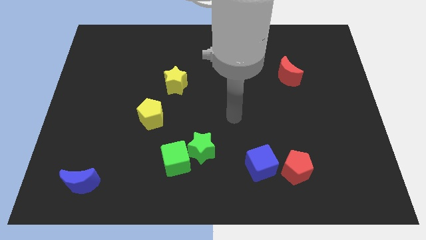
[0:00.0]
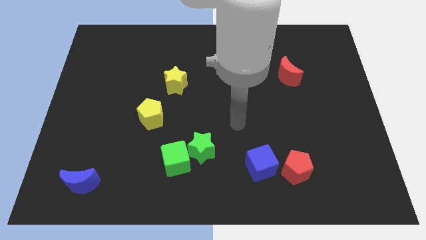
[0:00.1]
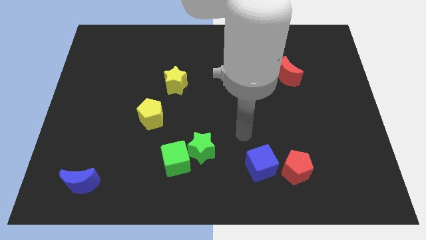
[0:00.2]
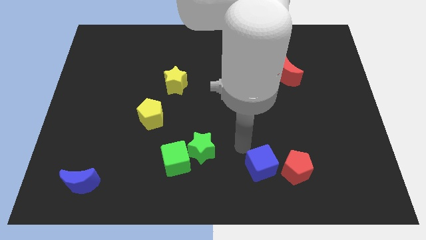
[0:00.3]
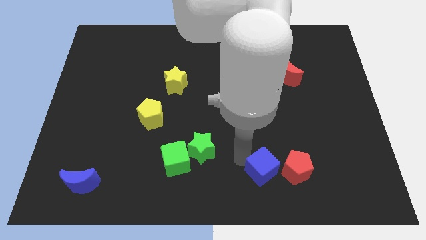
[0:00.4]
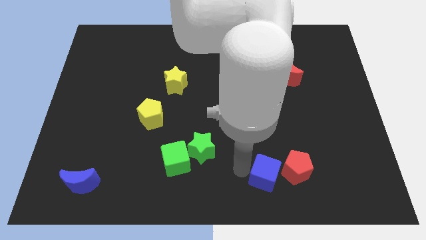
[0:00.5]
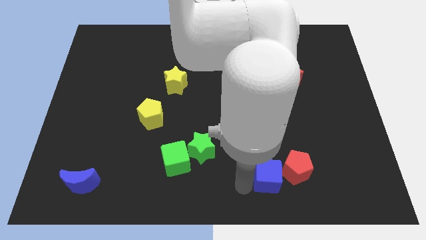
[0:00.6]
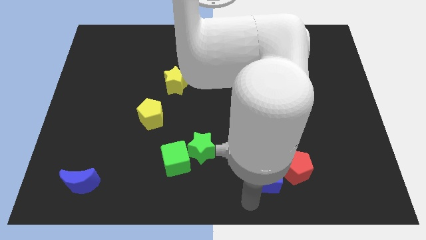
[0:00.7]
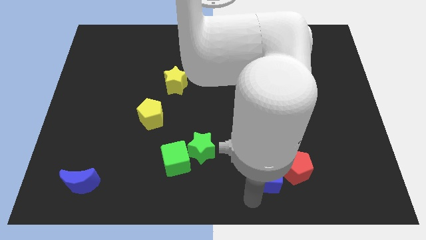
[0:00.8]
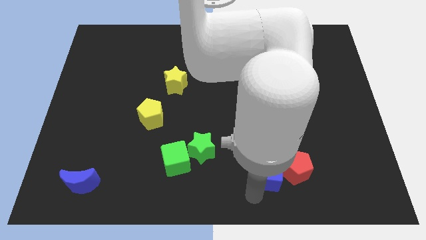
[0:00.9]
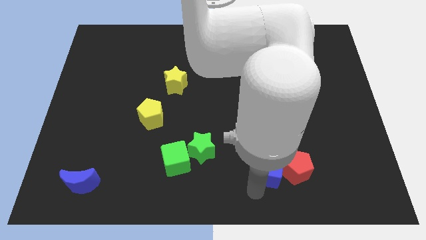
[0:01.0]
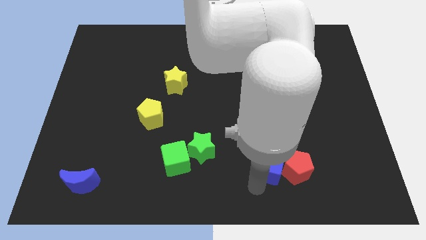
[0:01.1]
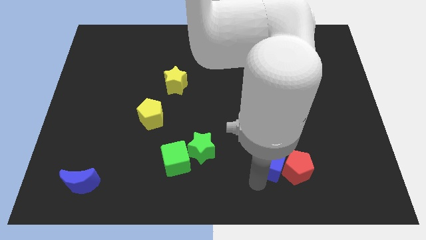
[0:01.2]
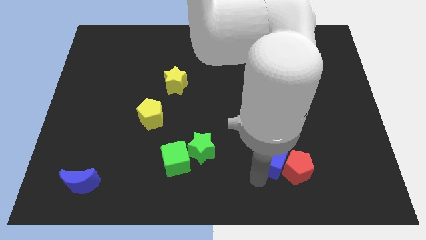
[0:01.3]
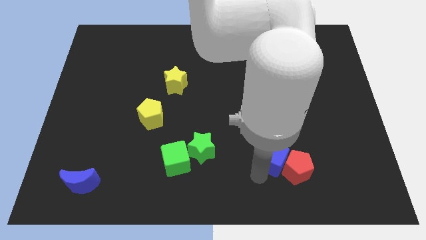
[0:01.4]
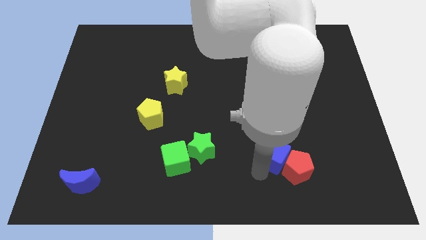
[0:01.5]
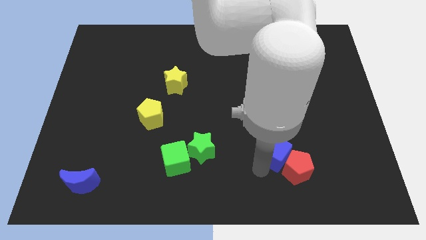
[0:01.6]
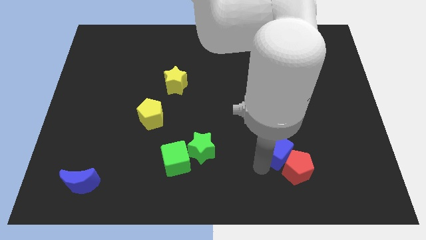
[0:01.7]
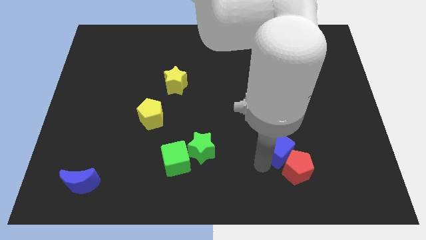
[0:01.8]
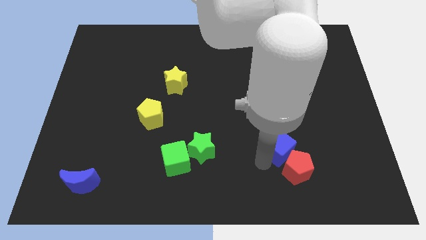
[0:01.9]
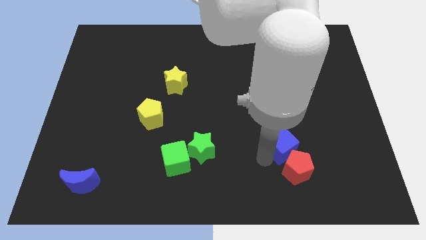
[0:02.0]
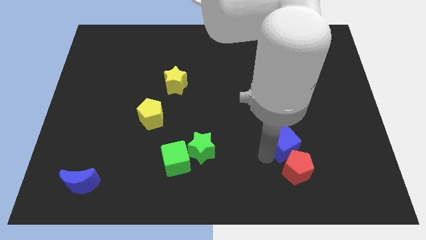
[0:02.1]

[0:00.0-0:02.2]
slide the blue cube a little diagonally up and right

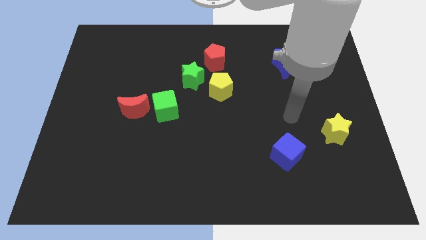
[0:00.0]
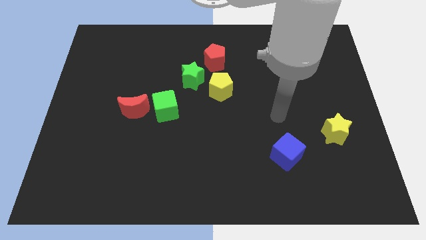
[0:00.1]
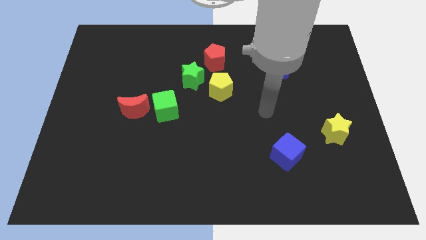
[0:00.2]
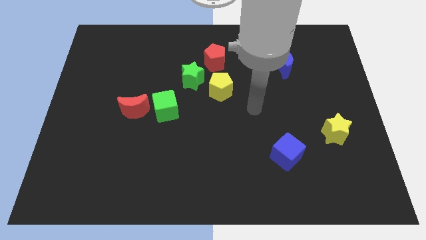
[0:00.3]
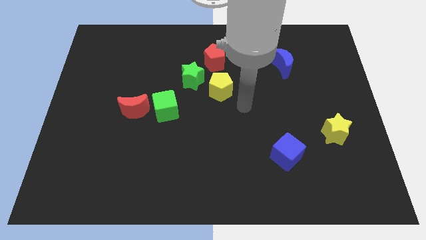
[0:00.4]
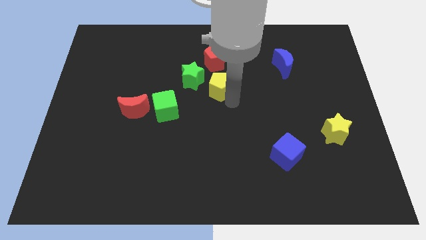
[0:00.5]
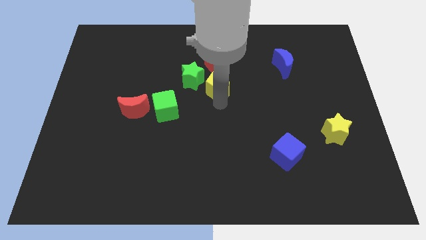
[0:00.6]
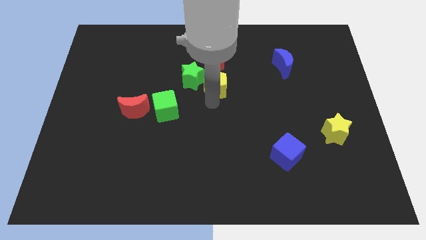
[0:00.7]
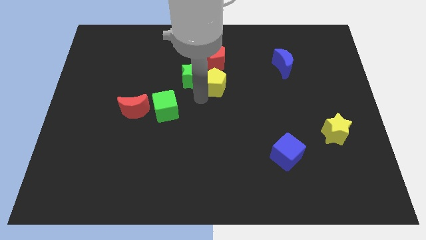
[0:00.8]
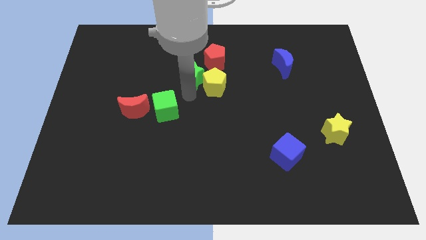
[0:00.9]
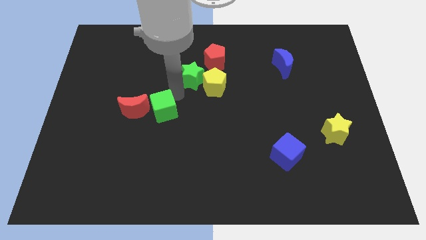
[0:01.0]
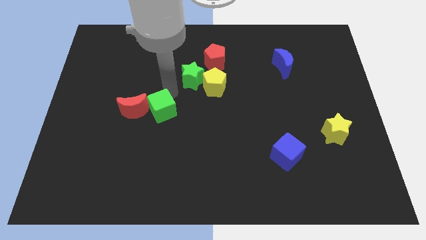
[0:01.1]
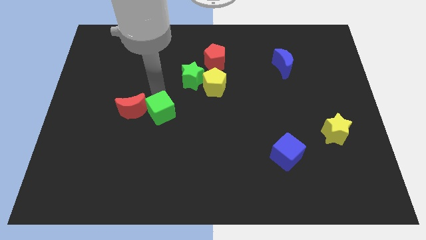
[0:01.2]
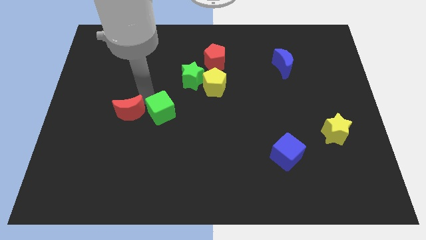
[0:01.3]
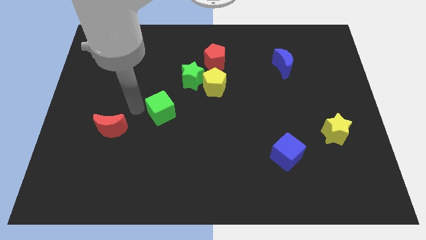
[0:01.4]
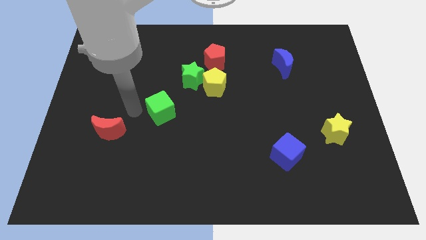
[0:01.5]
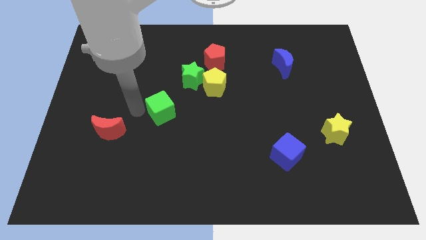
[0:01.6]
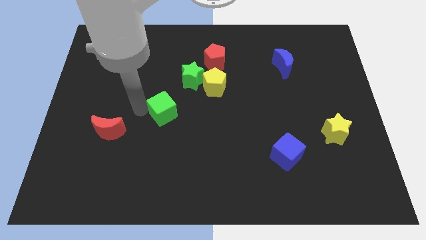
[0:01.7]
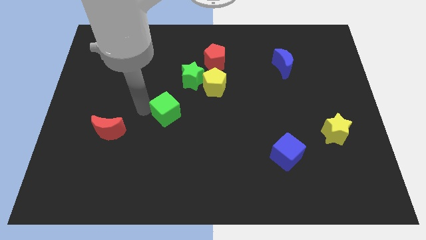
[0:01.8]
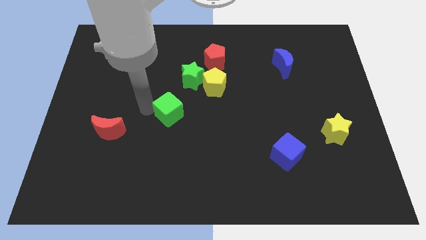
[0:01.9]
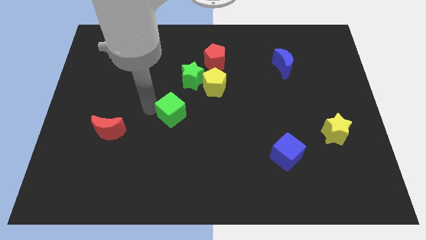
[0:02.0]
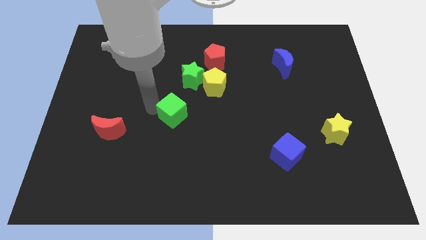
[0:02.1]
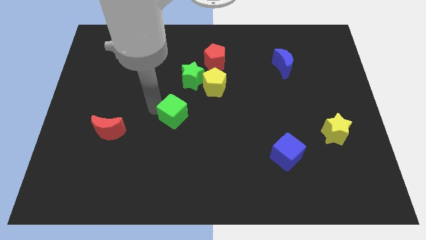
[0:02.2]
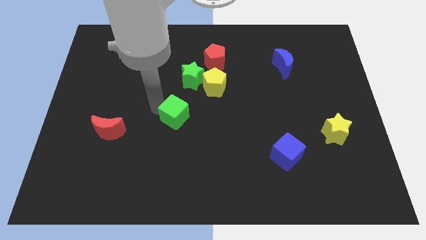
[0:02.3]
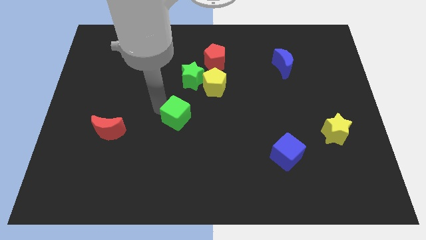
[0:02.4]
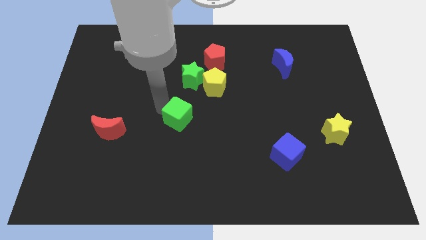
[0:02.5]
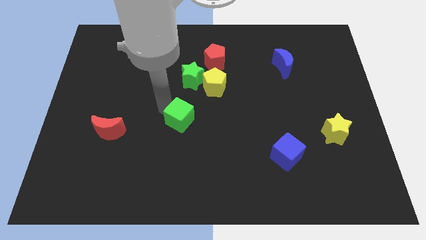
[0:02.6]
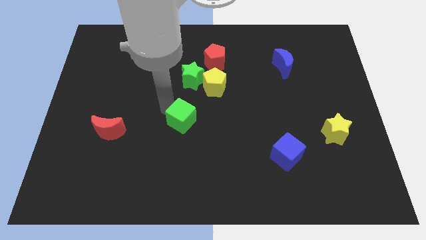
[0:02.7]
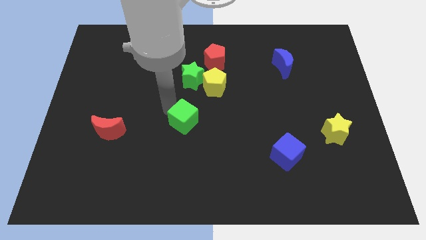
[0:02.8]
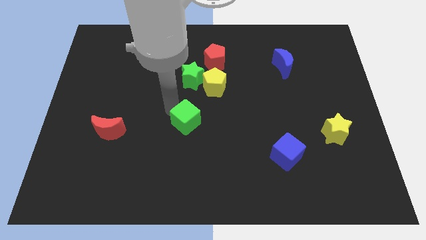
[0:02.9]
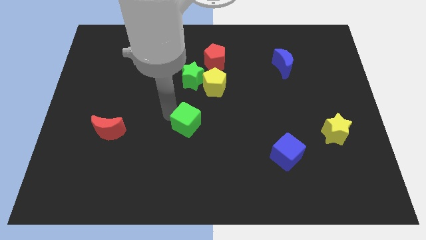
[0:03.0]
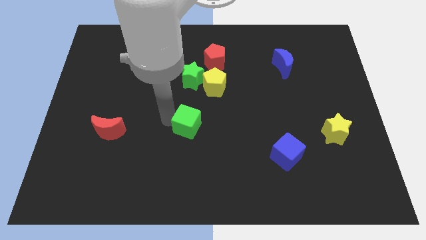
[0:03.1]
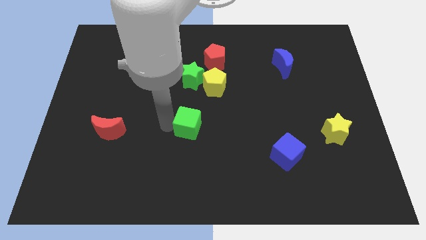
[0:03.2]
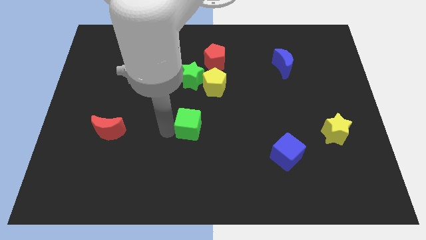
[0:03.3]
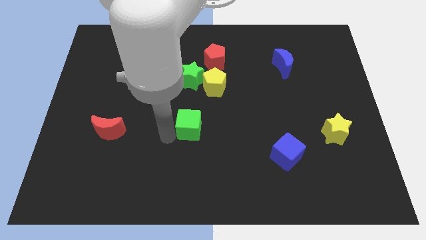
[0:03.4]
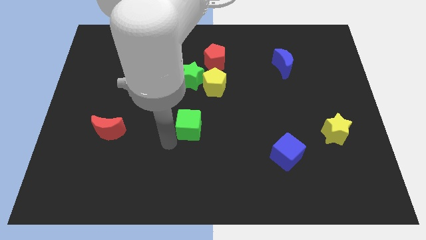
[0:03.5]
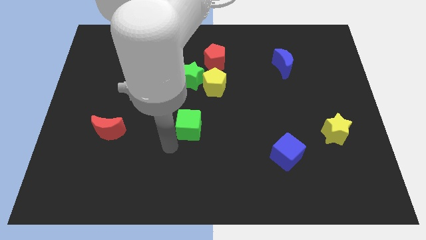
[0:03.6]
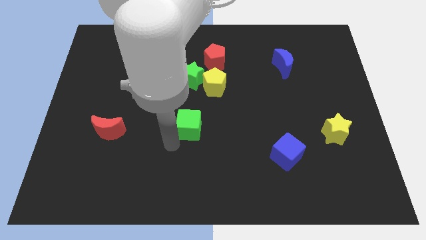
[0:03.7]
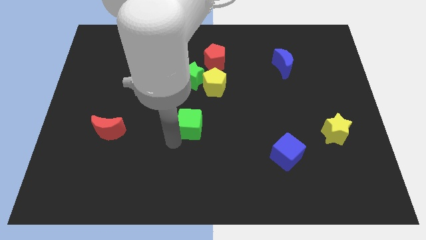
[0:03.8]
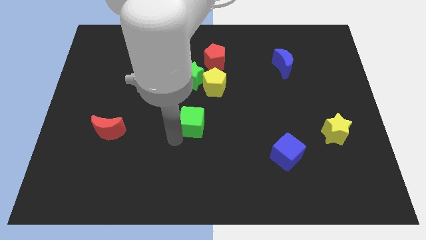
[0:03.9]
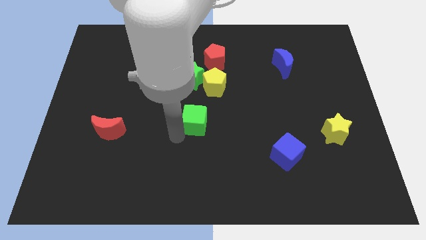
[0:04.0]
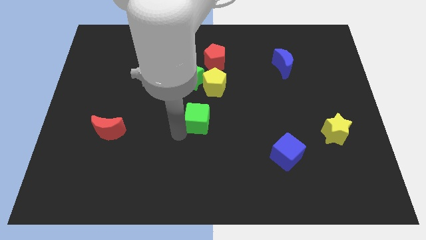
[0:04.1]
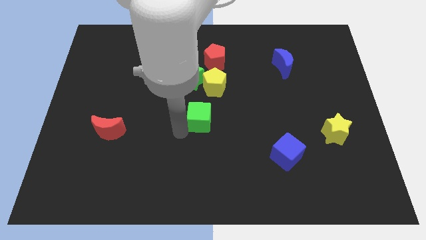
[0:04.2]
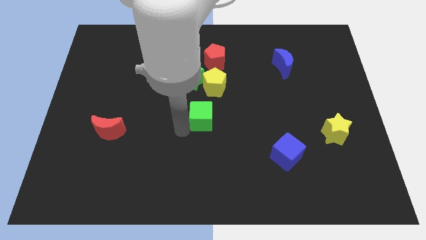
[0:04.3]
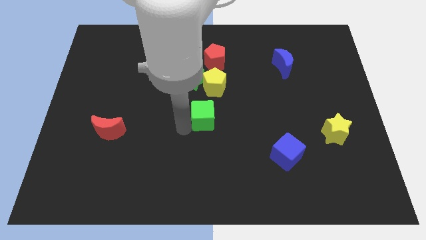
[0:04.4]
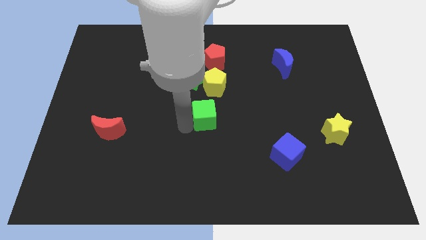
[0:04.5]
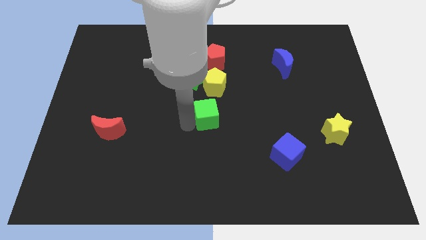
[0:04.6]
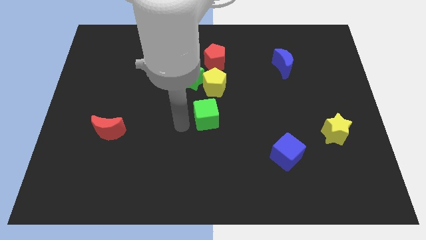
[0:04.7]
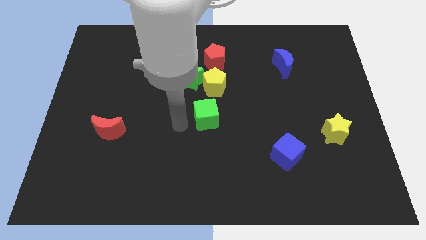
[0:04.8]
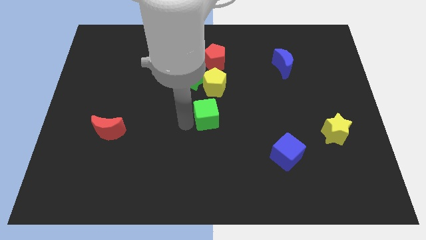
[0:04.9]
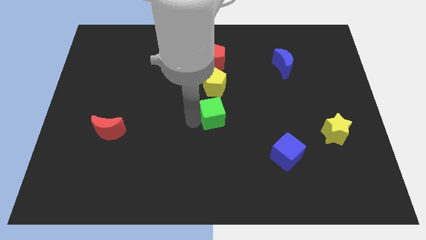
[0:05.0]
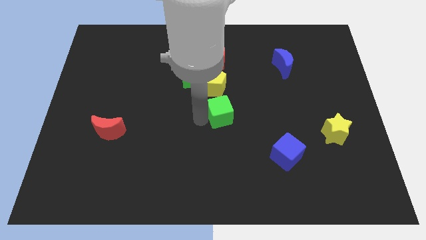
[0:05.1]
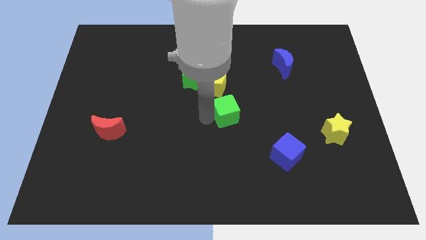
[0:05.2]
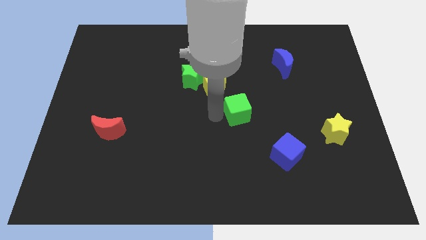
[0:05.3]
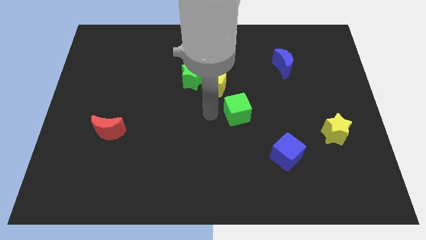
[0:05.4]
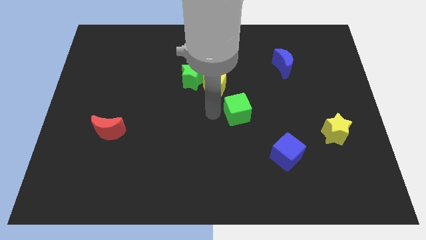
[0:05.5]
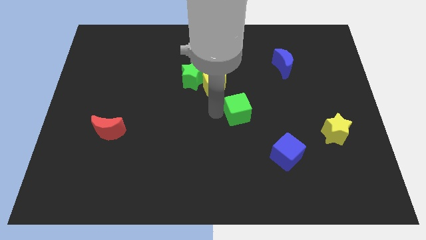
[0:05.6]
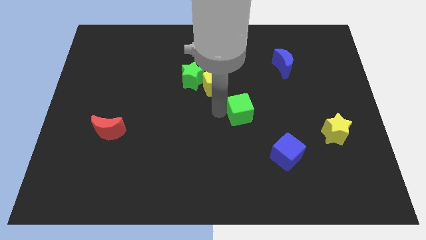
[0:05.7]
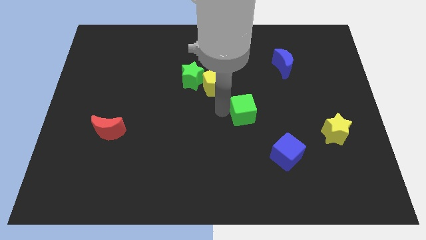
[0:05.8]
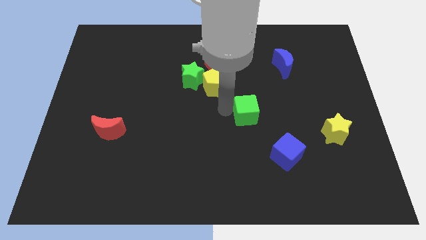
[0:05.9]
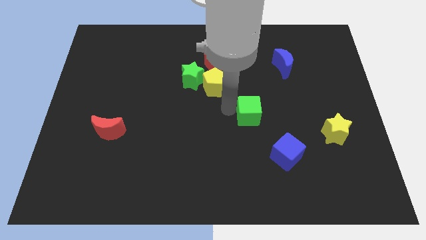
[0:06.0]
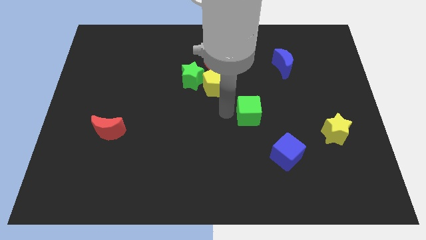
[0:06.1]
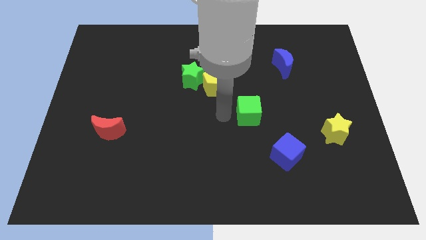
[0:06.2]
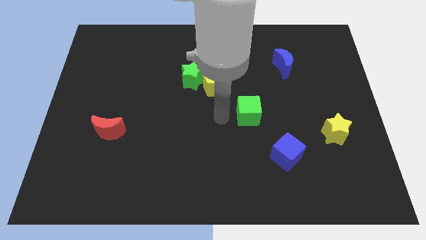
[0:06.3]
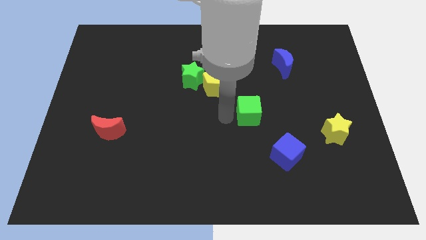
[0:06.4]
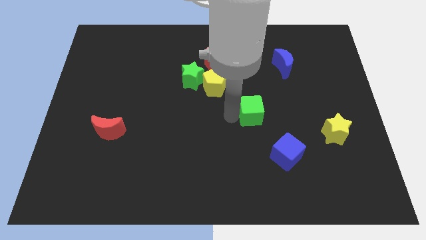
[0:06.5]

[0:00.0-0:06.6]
push the green cube to the right
